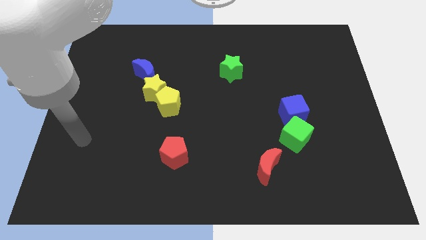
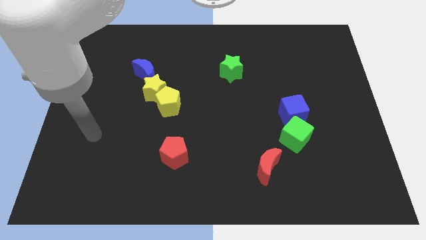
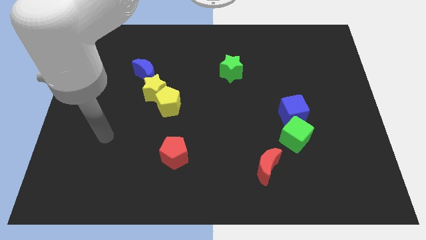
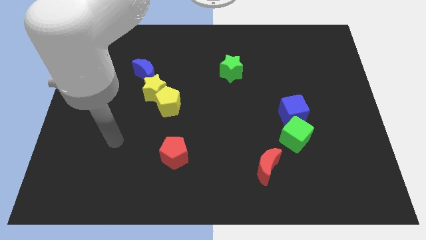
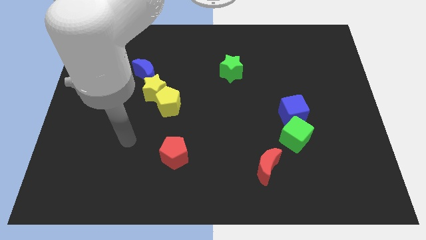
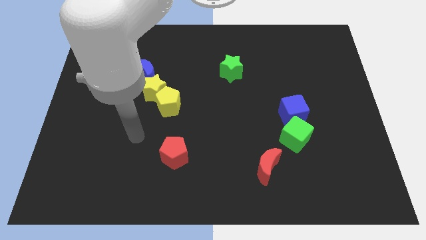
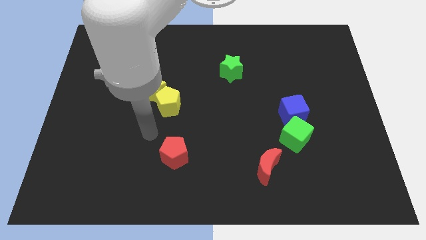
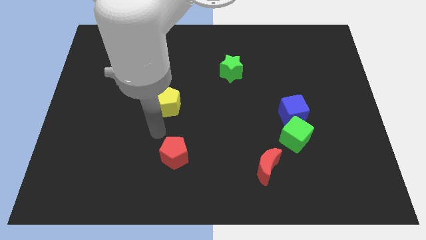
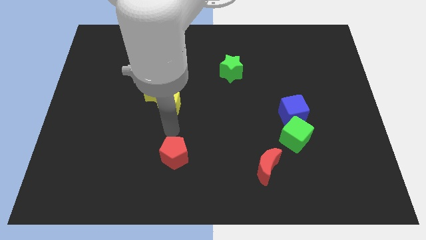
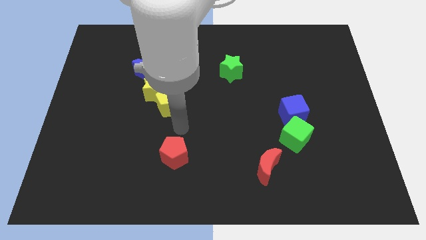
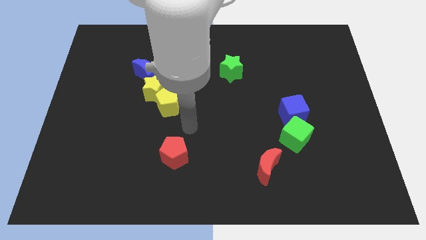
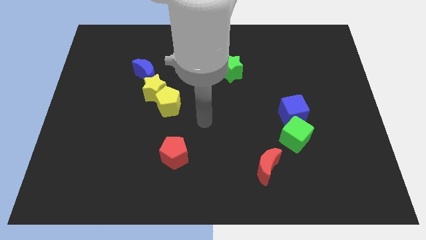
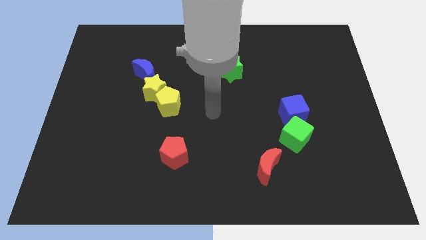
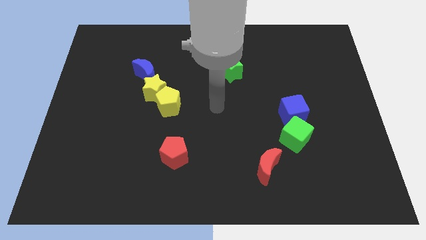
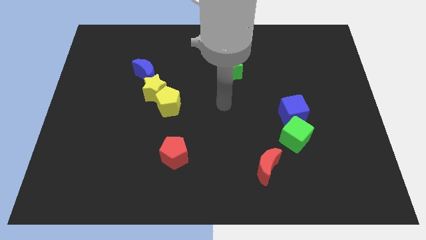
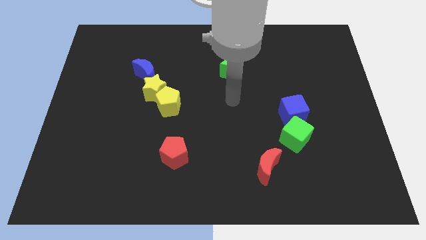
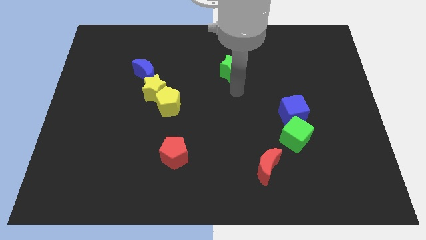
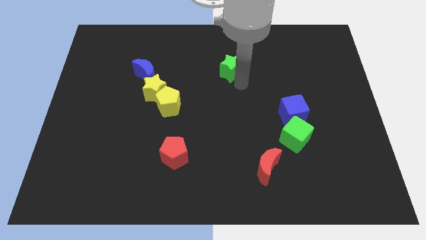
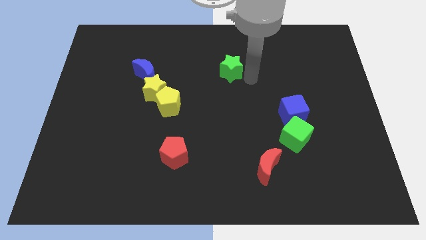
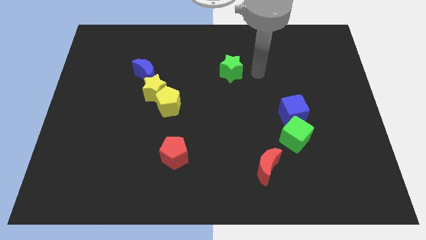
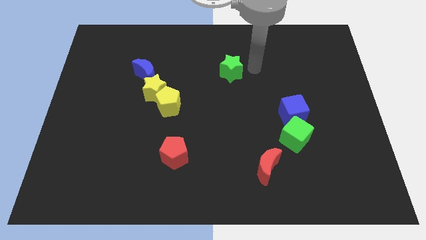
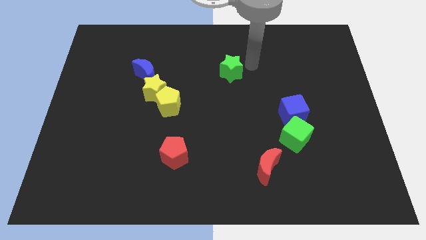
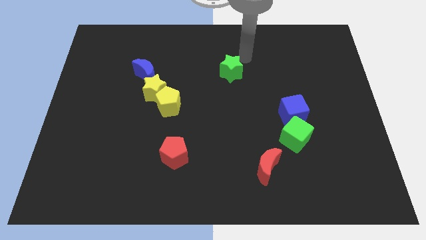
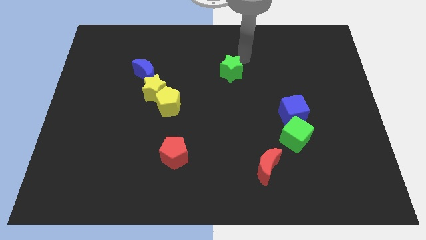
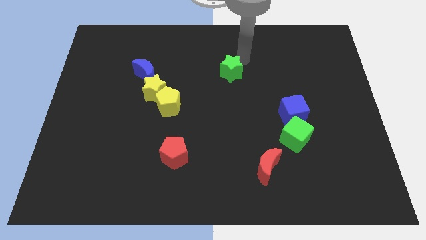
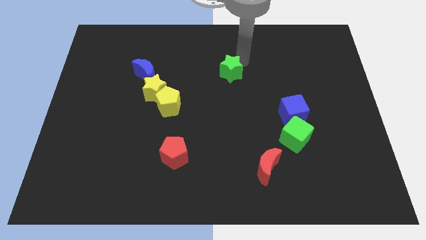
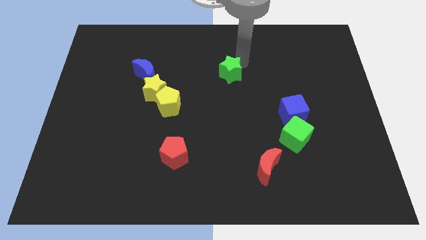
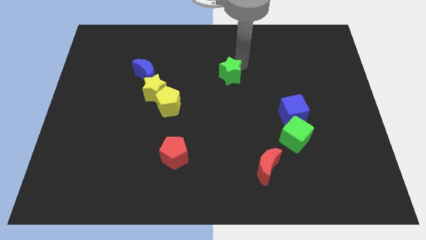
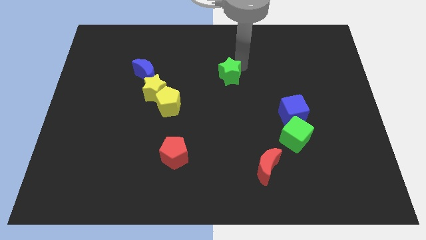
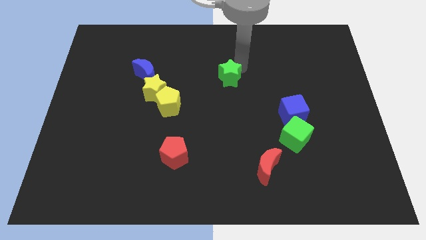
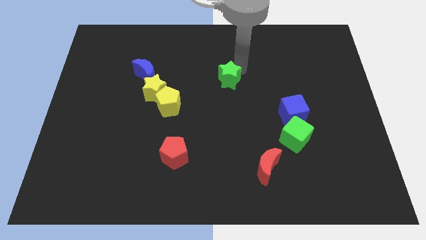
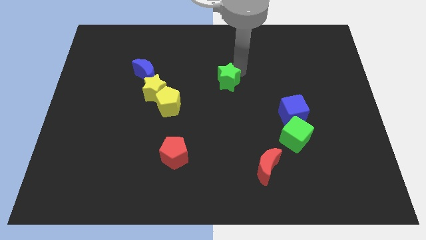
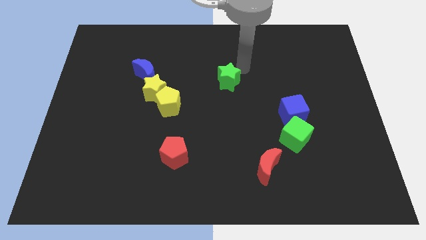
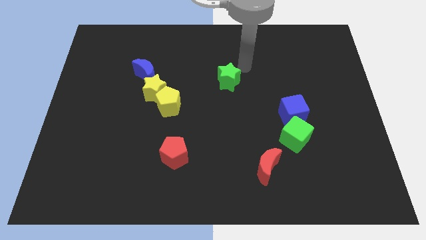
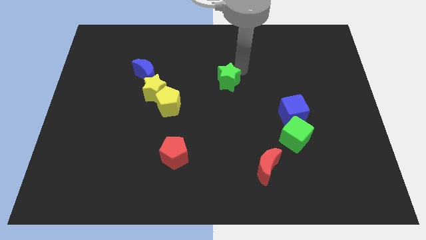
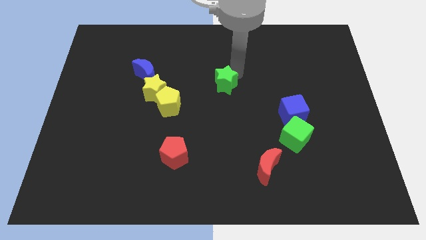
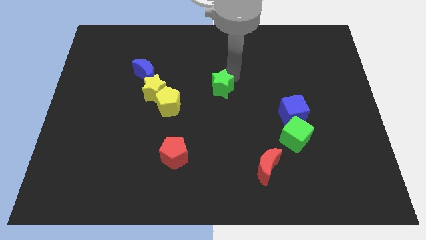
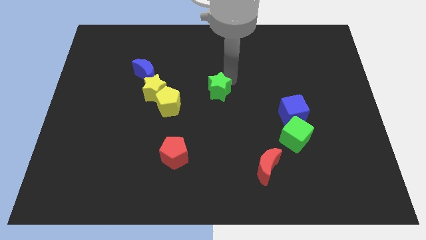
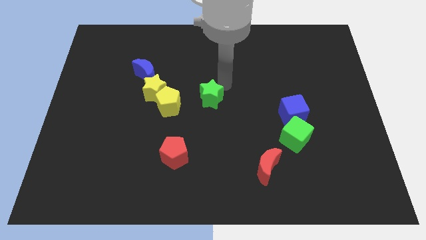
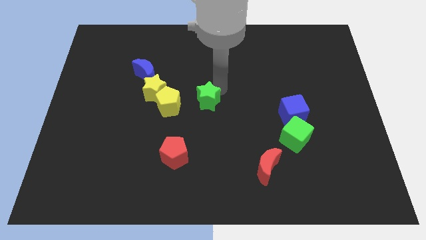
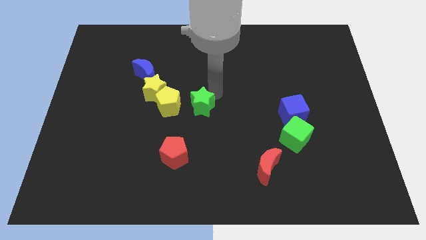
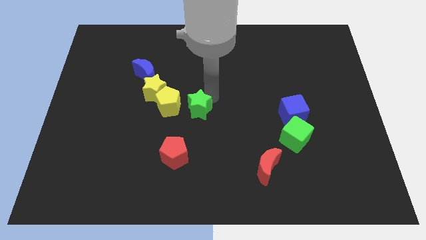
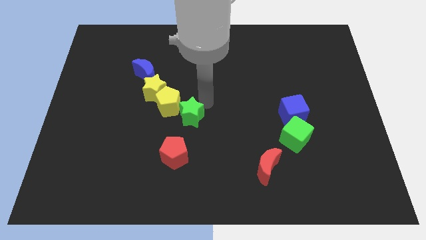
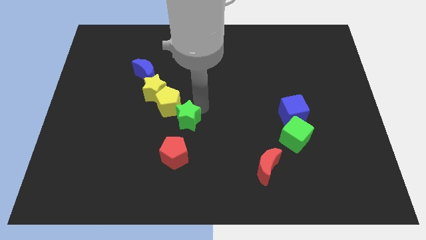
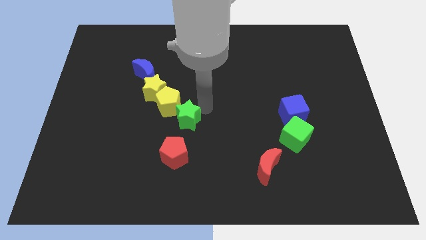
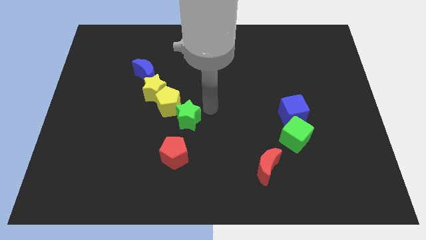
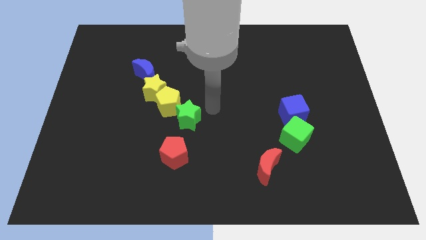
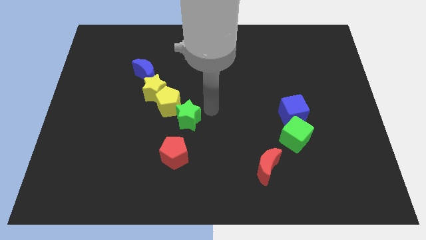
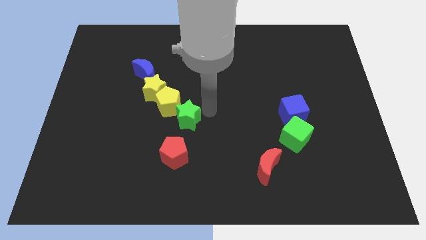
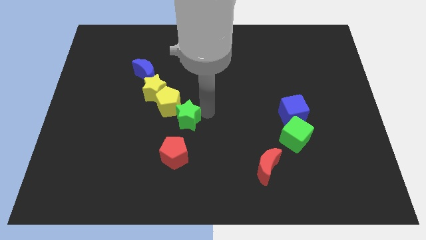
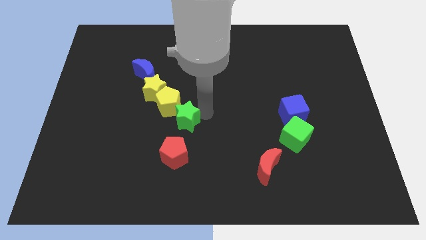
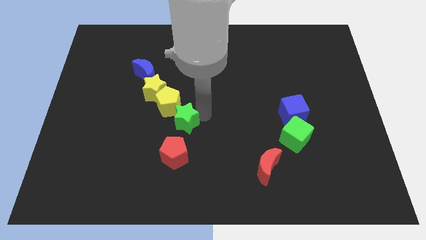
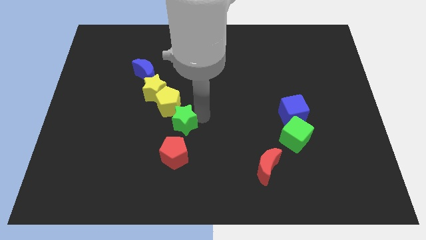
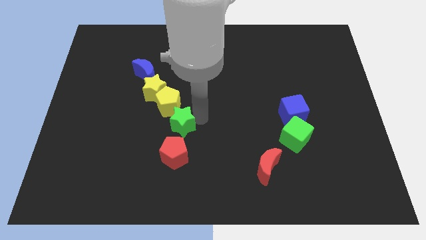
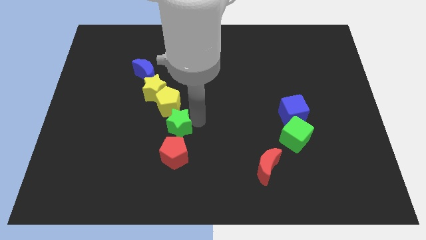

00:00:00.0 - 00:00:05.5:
move the green star down and then left

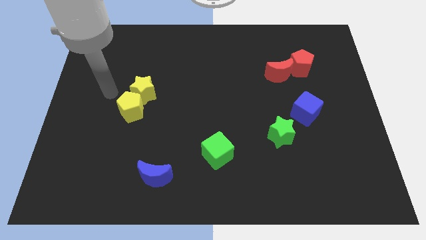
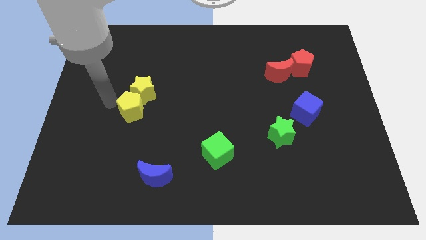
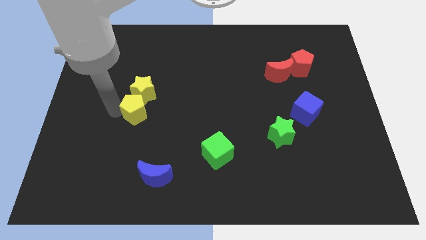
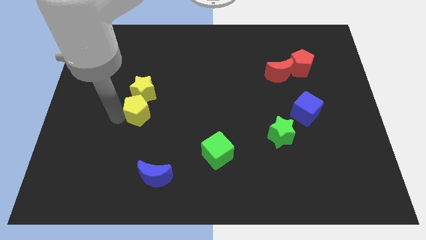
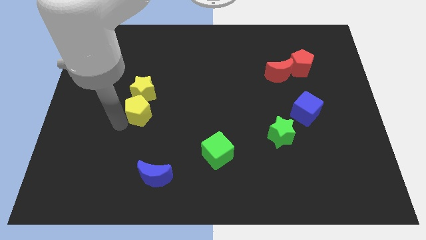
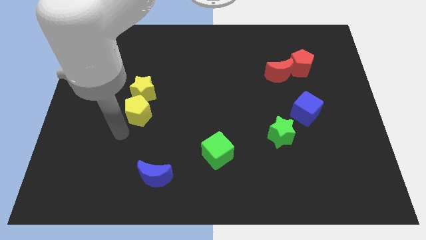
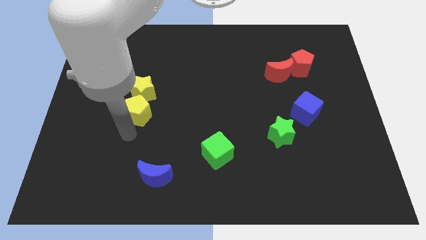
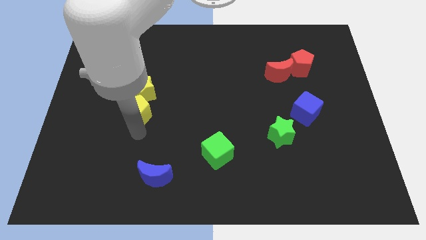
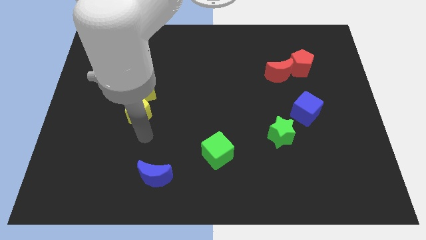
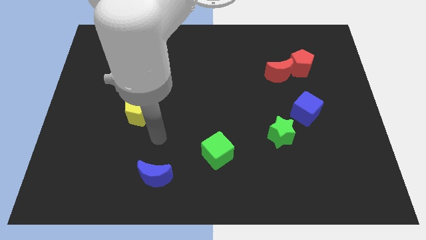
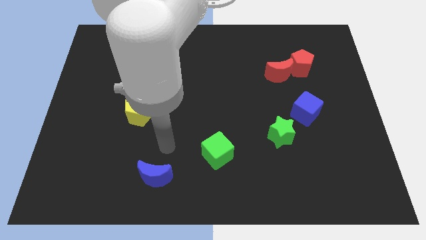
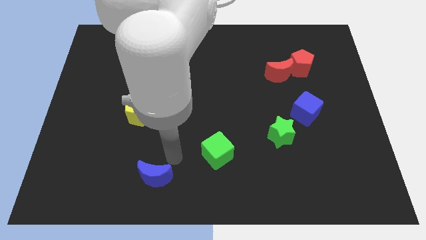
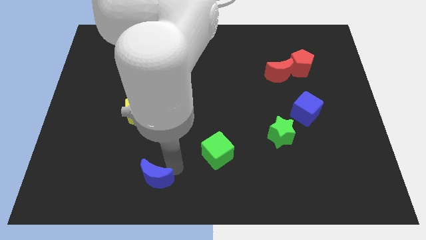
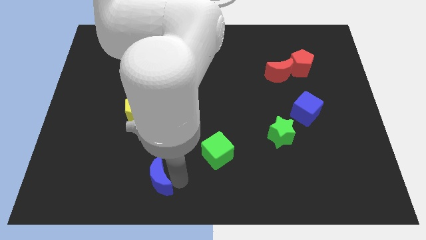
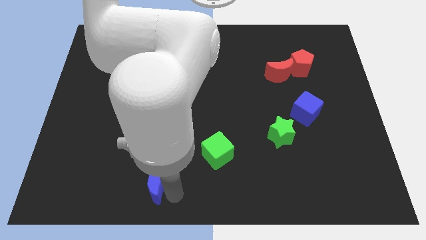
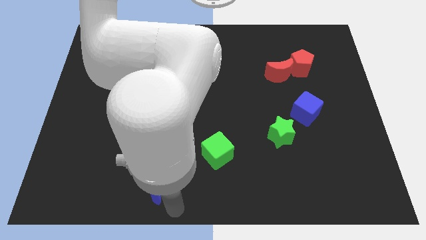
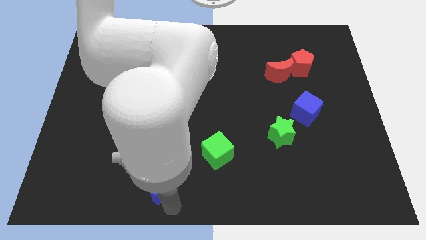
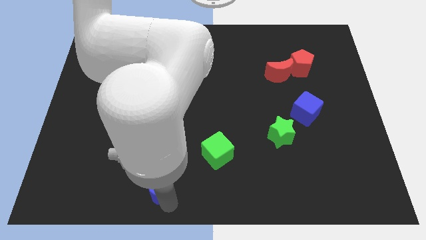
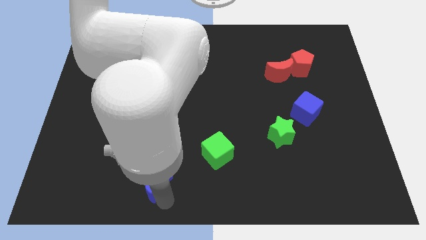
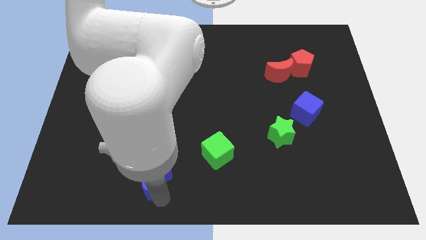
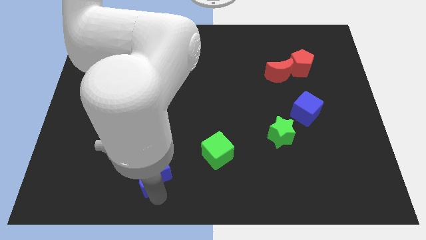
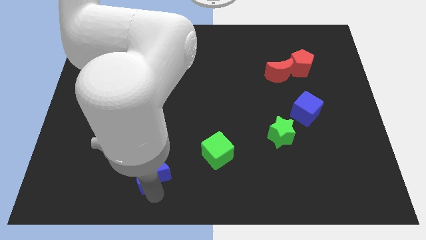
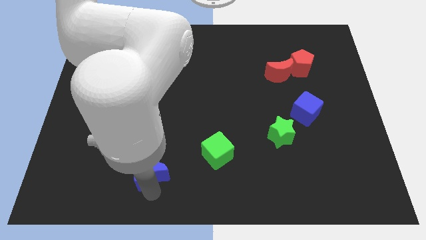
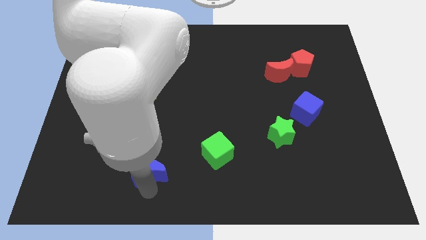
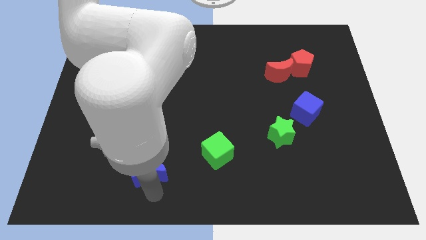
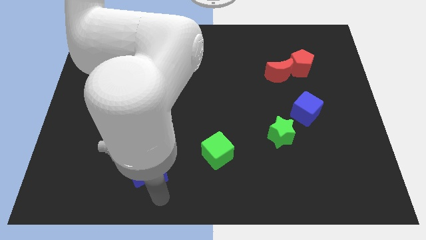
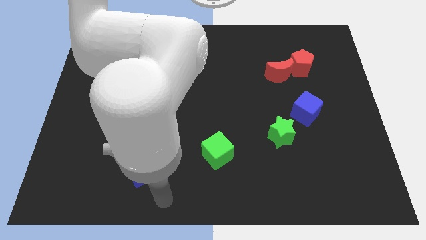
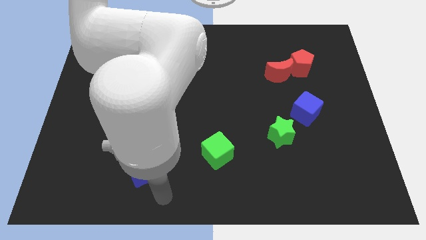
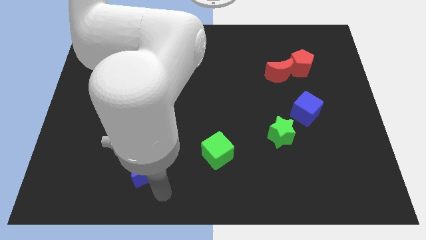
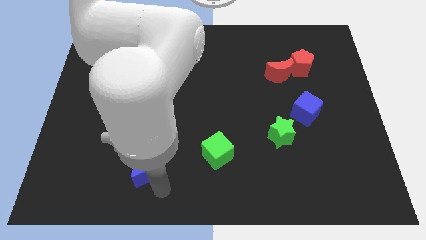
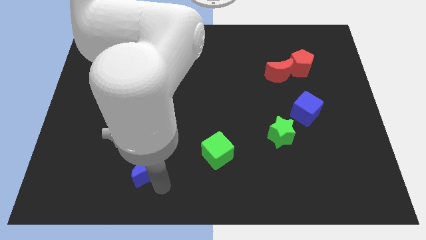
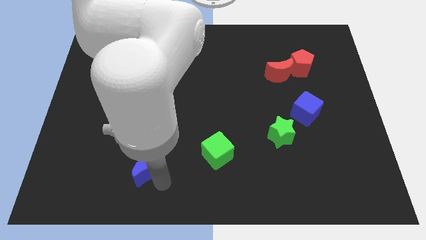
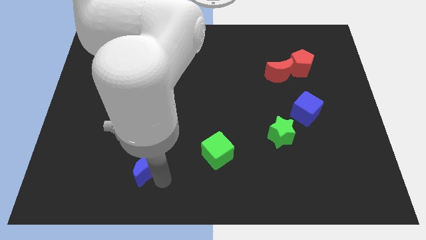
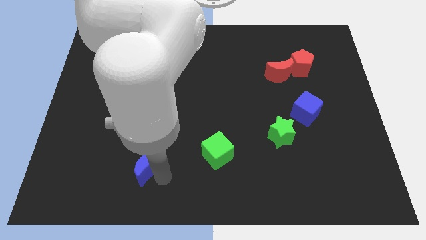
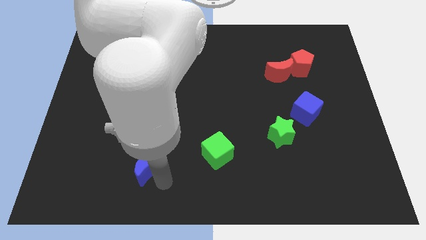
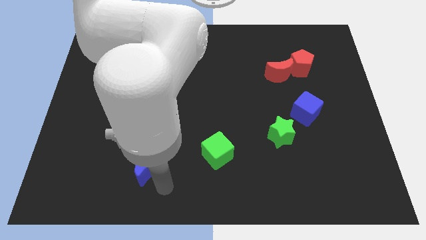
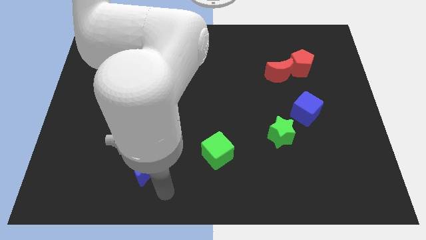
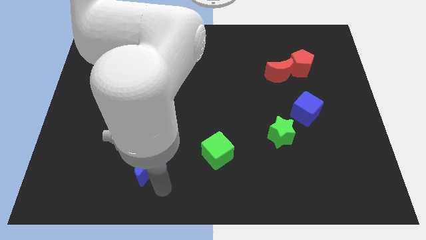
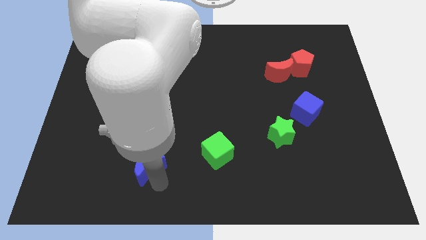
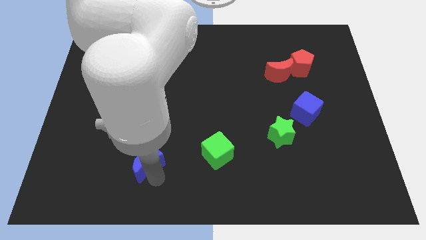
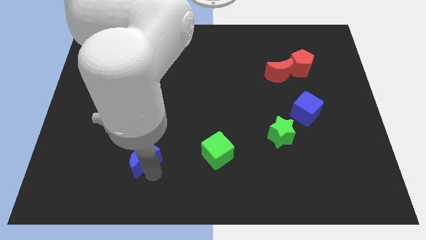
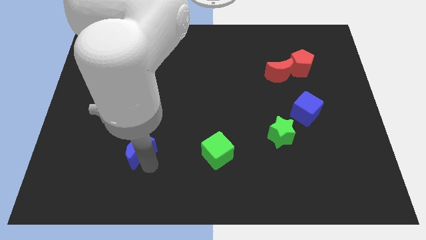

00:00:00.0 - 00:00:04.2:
move the blue moon a bit upwards and to the left diagonally
